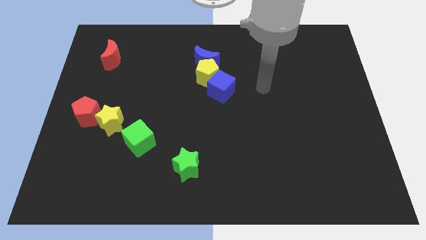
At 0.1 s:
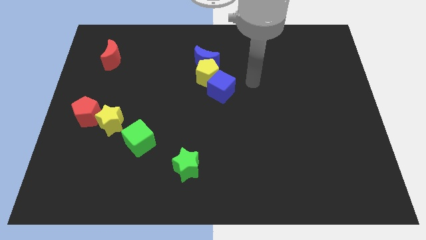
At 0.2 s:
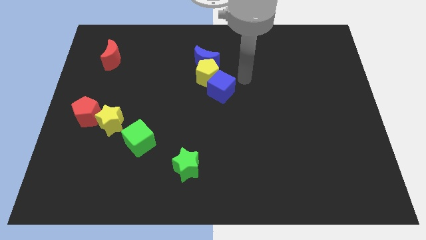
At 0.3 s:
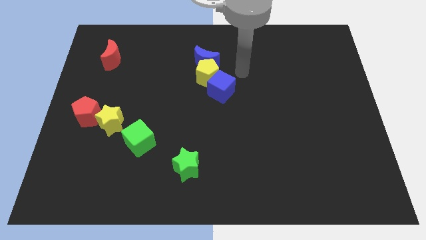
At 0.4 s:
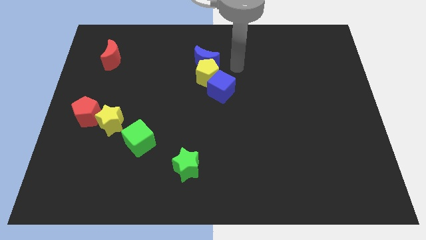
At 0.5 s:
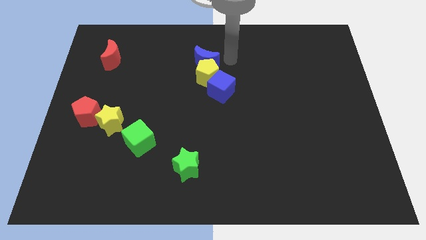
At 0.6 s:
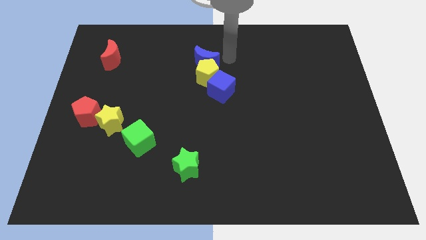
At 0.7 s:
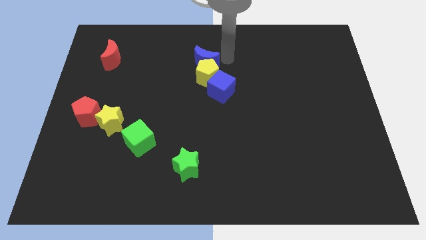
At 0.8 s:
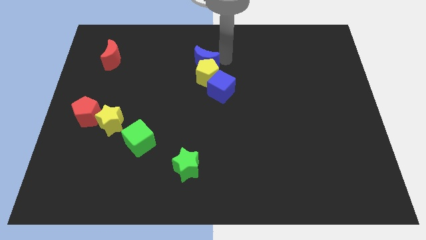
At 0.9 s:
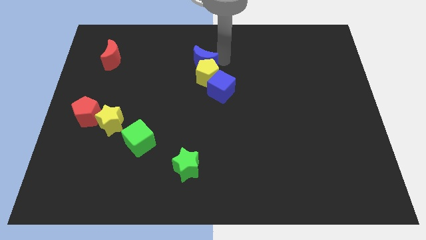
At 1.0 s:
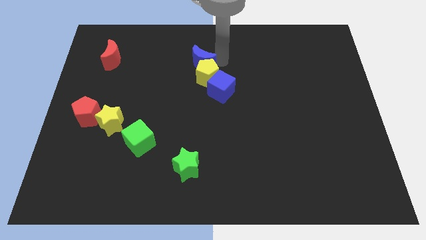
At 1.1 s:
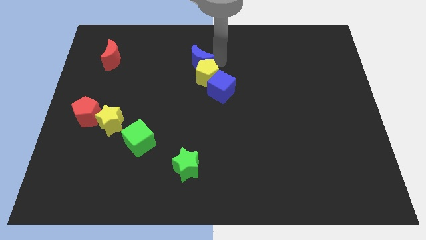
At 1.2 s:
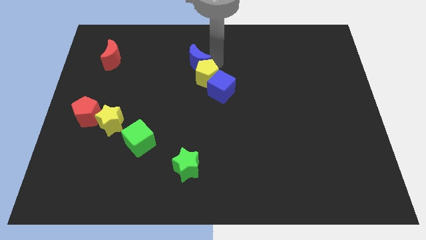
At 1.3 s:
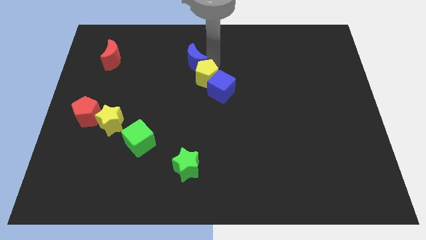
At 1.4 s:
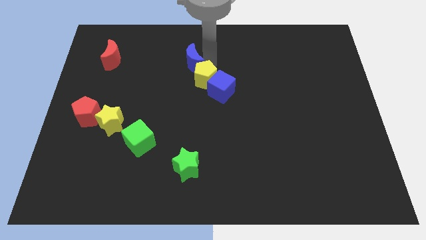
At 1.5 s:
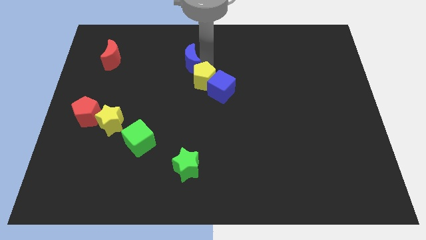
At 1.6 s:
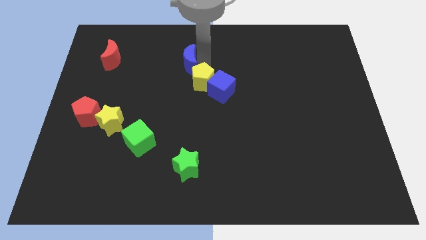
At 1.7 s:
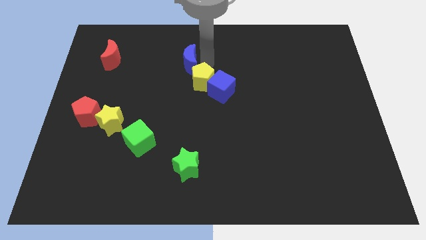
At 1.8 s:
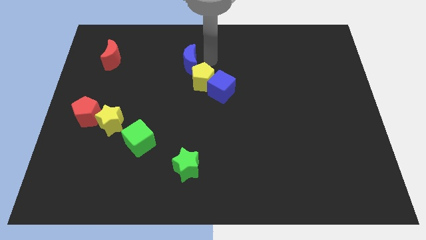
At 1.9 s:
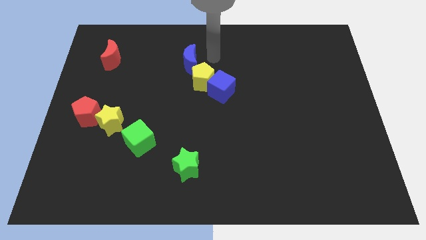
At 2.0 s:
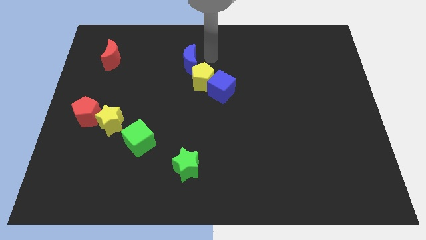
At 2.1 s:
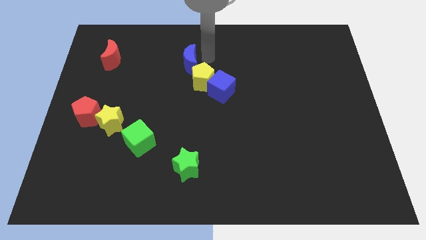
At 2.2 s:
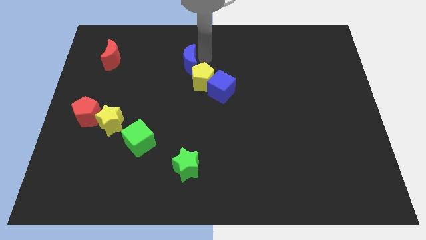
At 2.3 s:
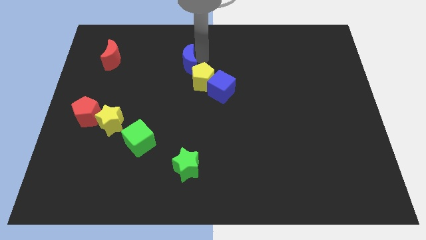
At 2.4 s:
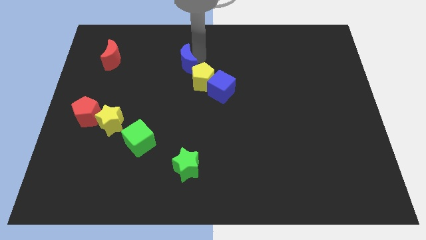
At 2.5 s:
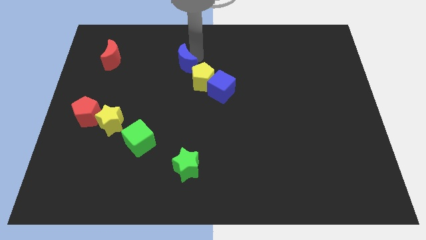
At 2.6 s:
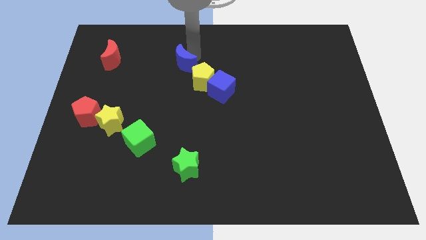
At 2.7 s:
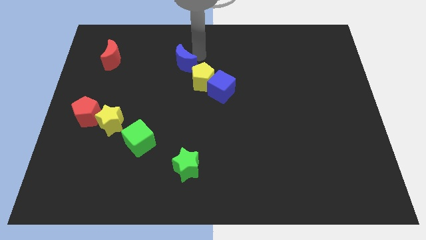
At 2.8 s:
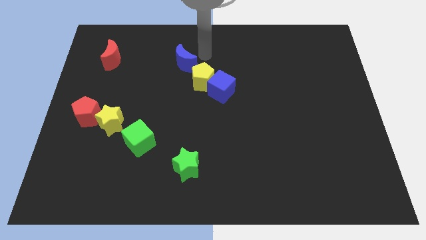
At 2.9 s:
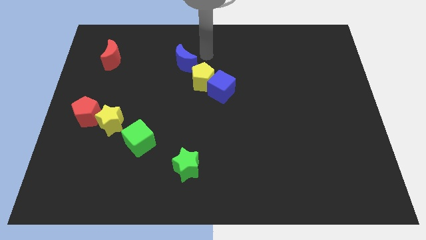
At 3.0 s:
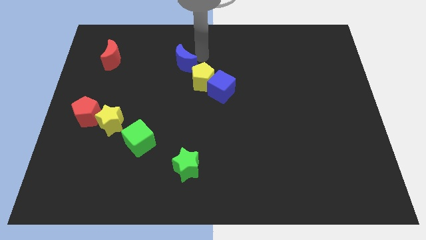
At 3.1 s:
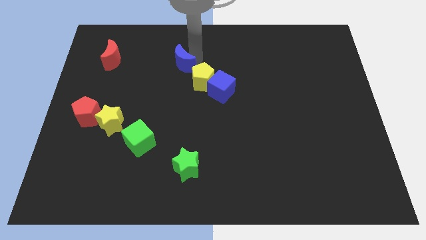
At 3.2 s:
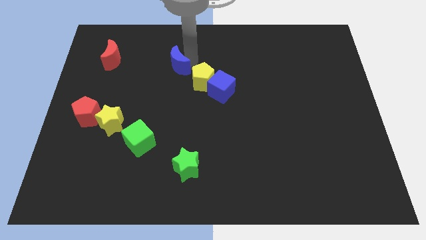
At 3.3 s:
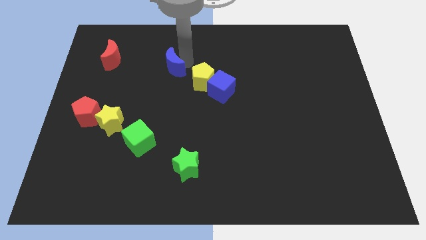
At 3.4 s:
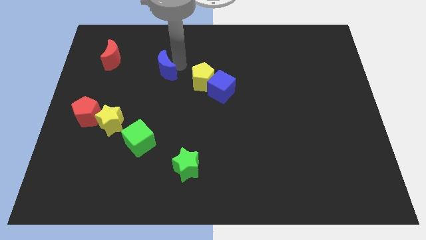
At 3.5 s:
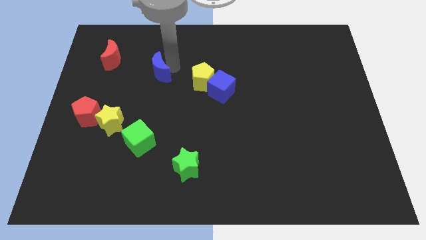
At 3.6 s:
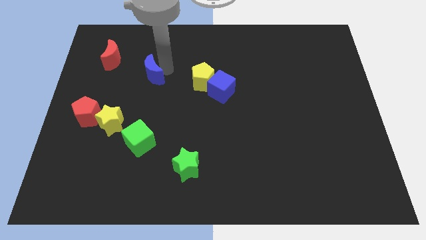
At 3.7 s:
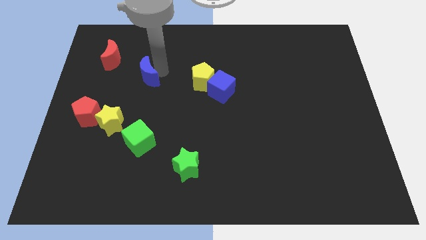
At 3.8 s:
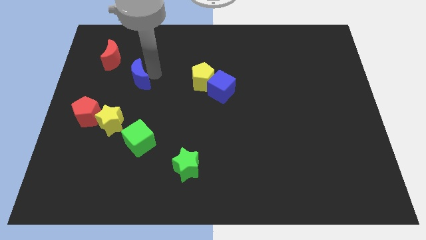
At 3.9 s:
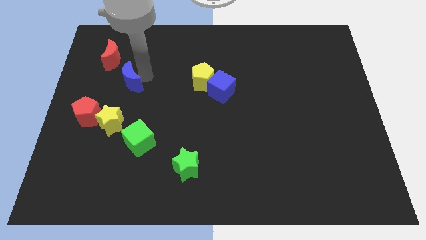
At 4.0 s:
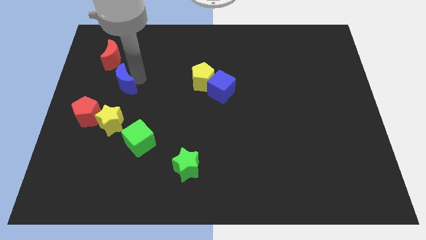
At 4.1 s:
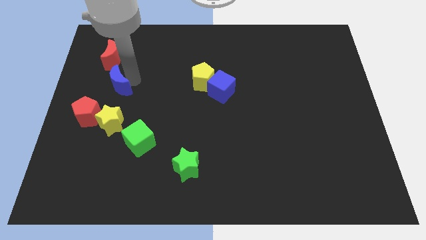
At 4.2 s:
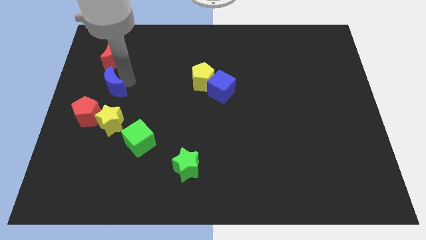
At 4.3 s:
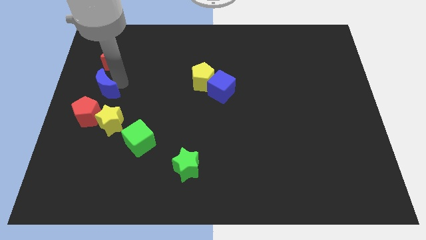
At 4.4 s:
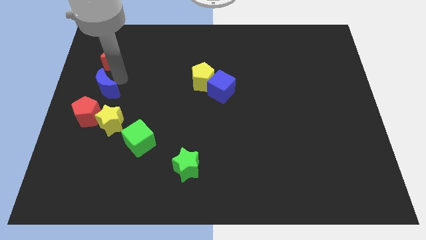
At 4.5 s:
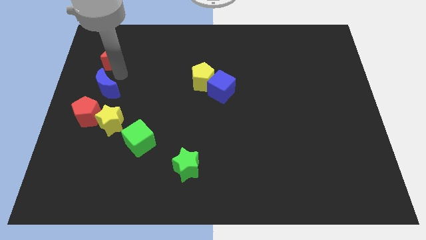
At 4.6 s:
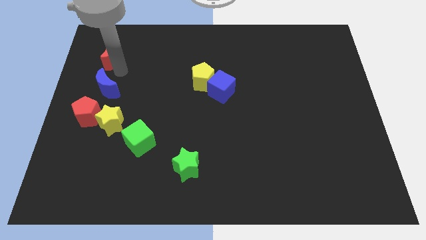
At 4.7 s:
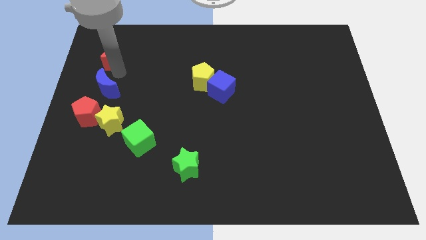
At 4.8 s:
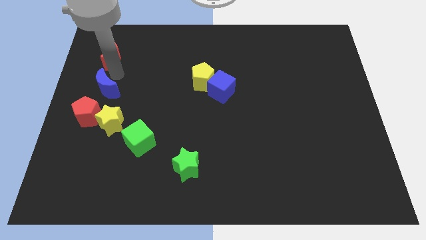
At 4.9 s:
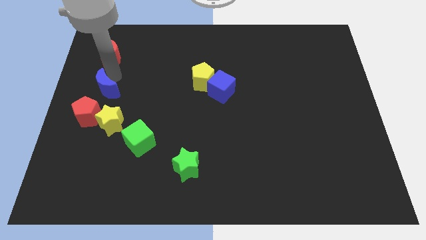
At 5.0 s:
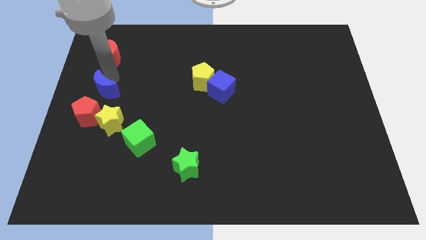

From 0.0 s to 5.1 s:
put the blue moon diagonally up and to the left of the yellow star

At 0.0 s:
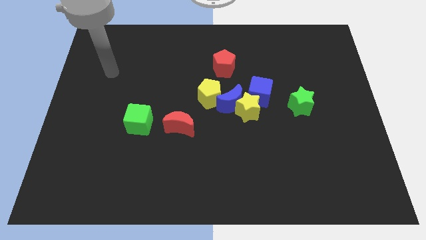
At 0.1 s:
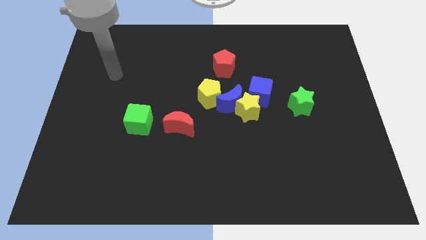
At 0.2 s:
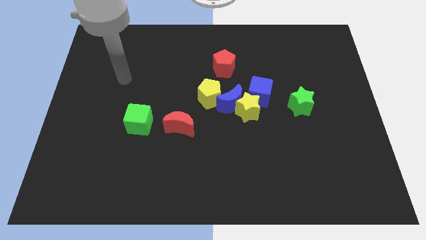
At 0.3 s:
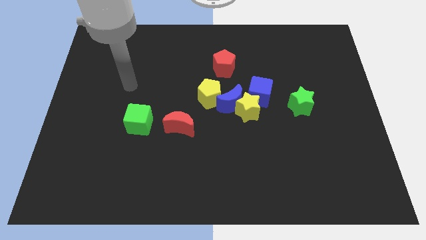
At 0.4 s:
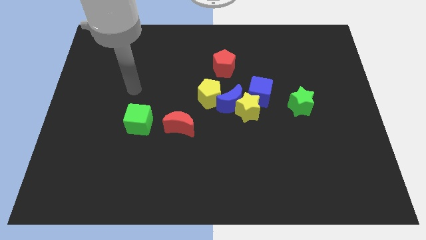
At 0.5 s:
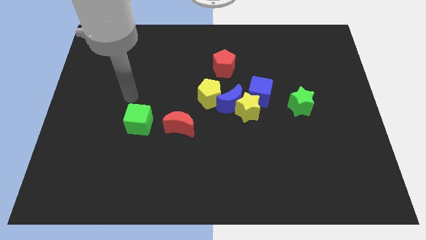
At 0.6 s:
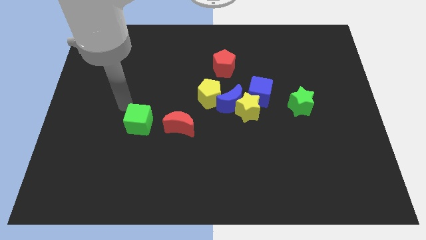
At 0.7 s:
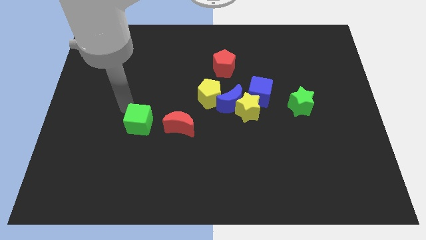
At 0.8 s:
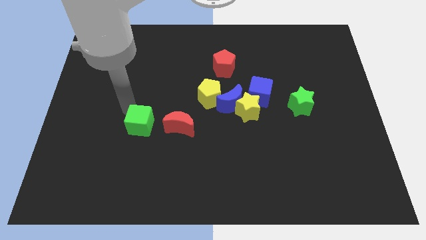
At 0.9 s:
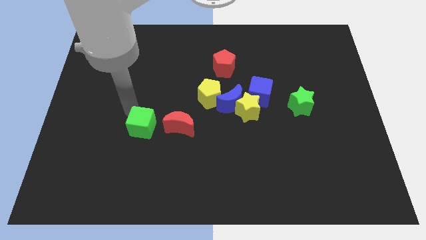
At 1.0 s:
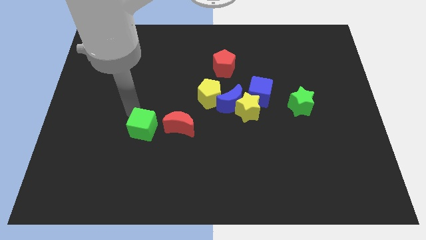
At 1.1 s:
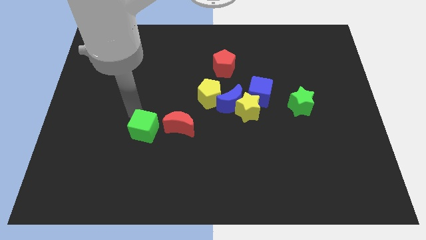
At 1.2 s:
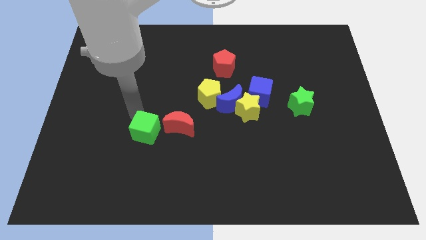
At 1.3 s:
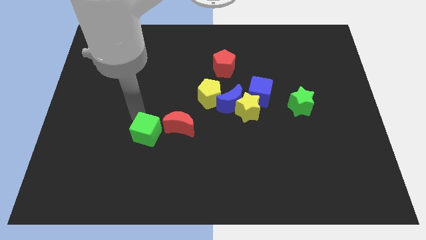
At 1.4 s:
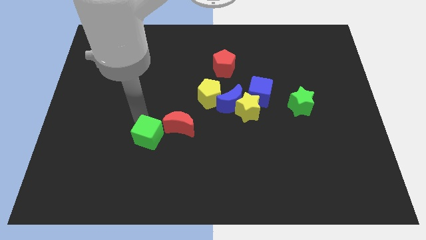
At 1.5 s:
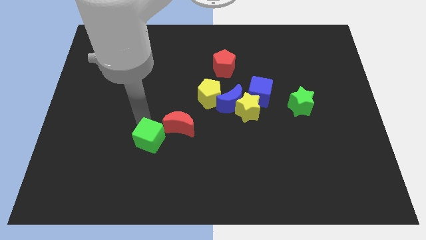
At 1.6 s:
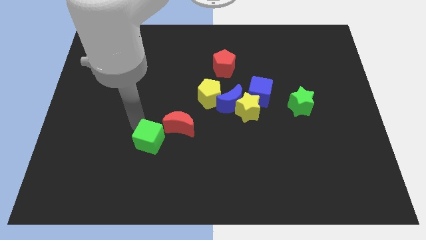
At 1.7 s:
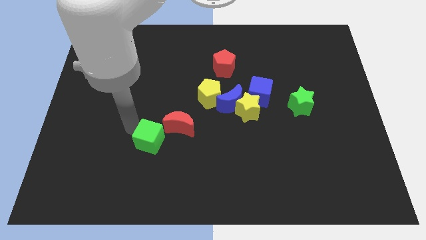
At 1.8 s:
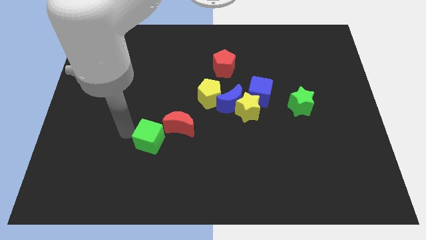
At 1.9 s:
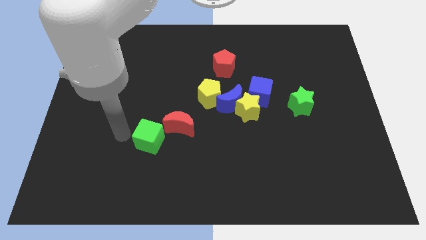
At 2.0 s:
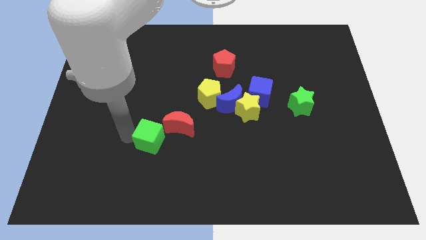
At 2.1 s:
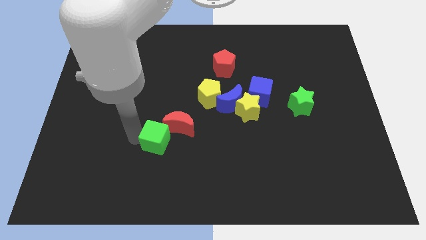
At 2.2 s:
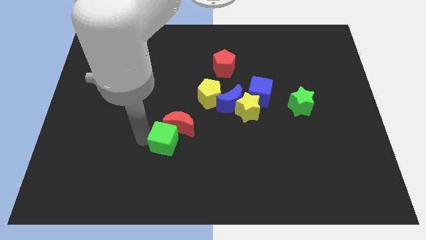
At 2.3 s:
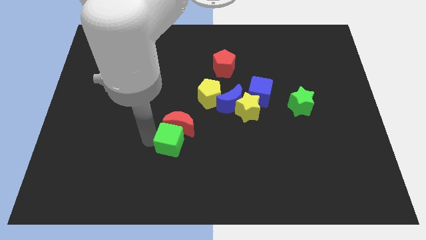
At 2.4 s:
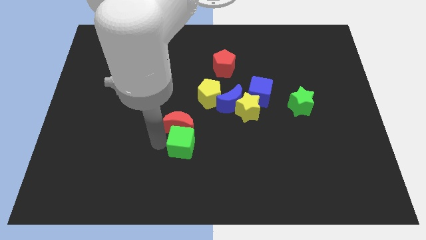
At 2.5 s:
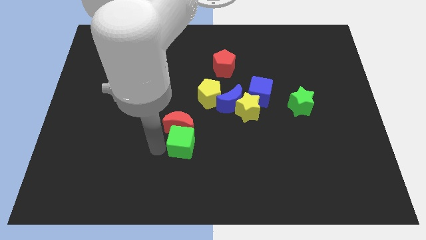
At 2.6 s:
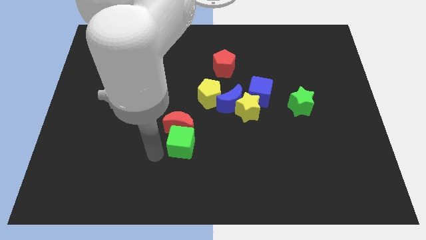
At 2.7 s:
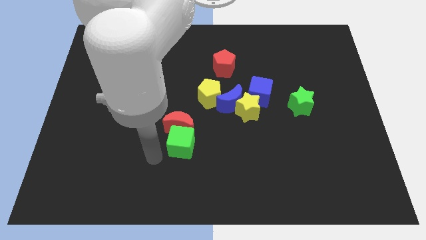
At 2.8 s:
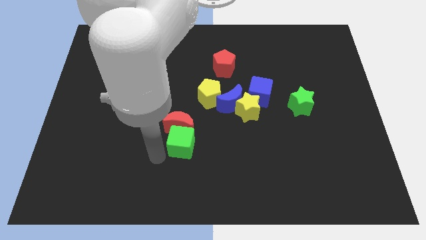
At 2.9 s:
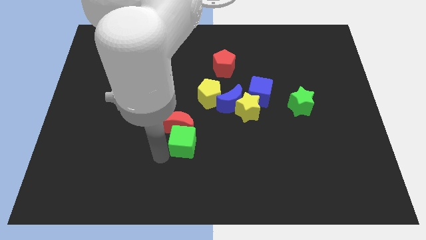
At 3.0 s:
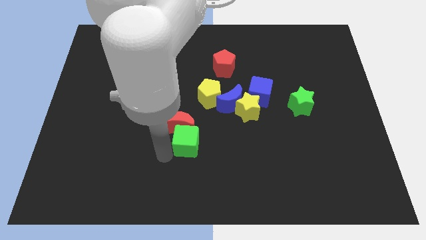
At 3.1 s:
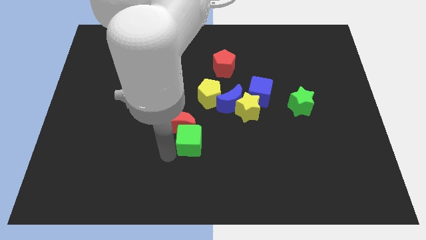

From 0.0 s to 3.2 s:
put the green cube to the bottom of the yellow pentagon
